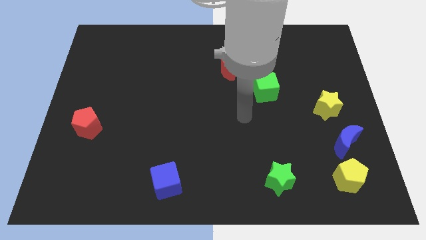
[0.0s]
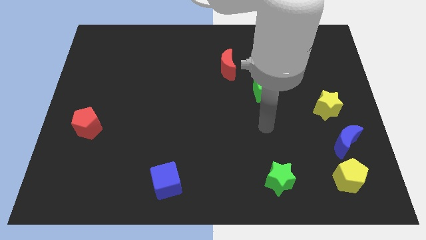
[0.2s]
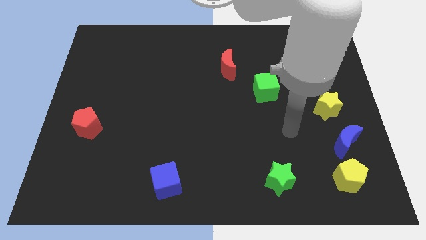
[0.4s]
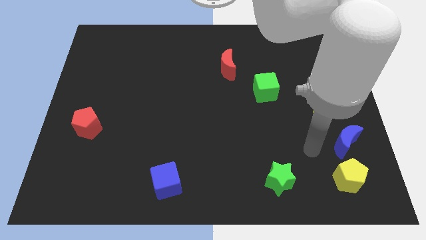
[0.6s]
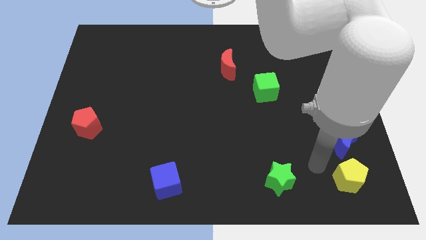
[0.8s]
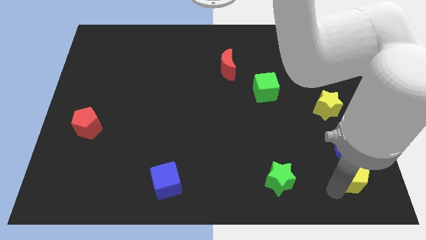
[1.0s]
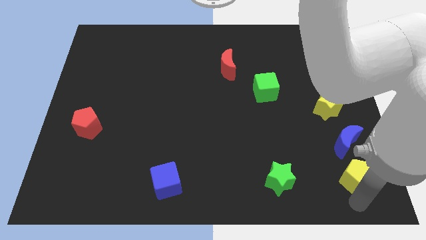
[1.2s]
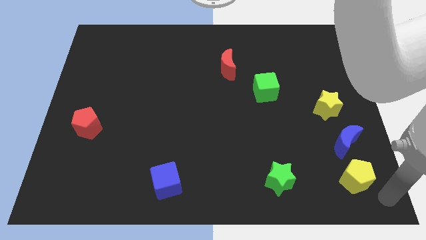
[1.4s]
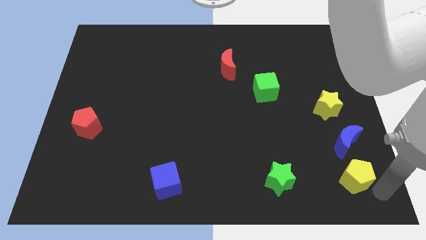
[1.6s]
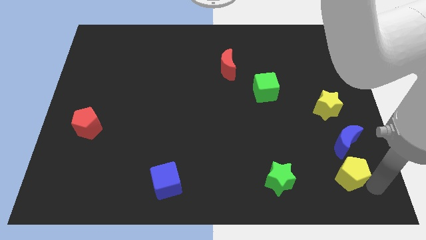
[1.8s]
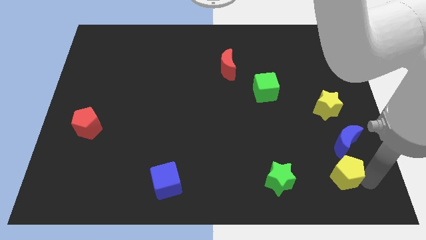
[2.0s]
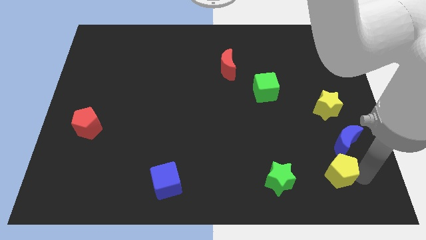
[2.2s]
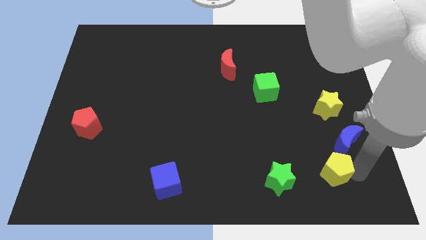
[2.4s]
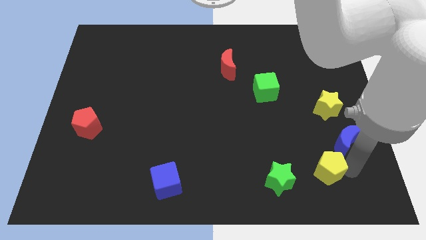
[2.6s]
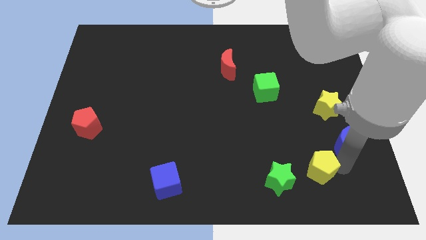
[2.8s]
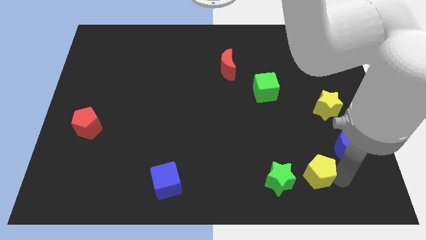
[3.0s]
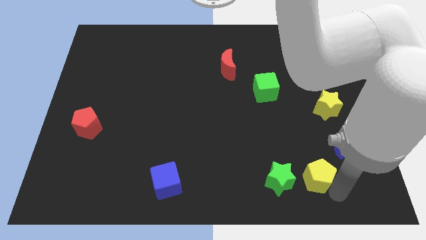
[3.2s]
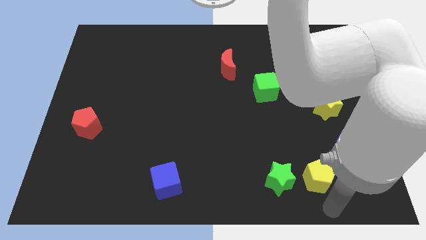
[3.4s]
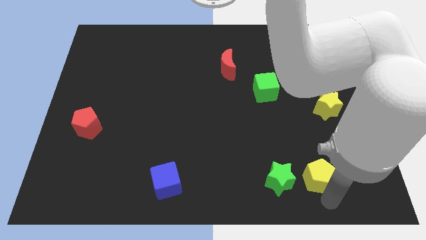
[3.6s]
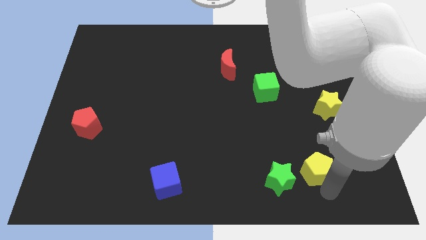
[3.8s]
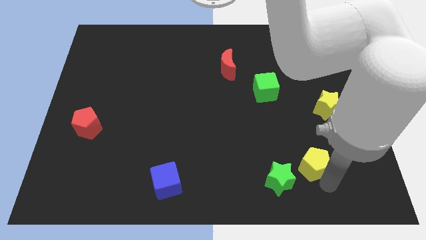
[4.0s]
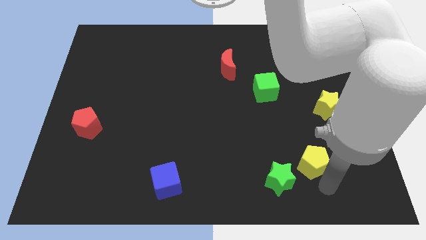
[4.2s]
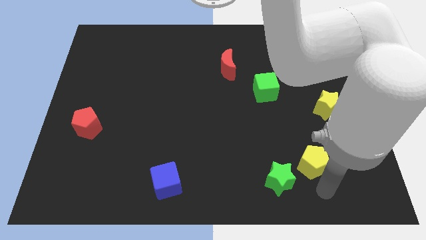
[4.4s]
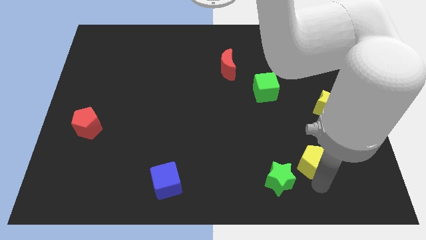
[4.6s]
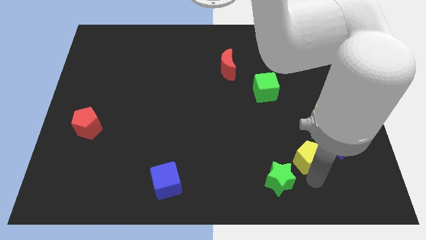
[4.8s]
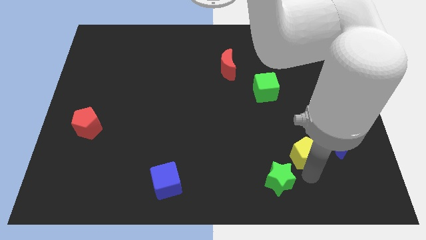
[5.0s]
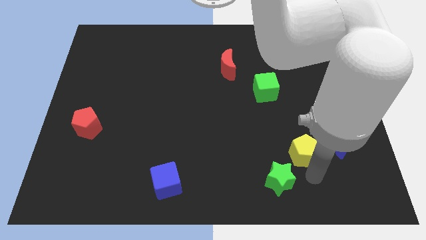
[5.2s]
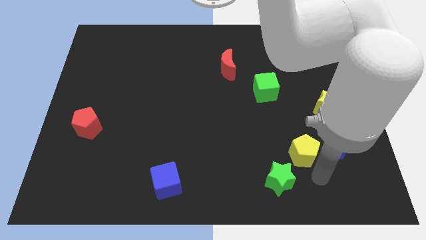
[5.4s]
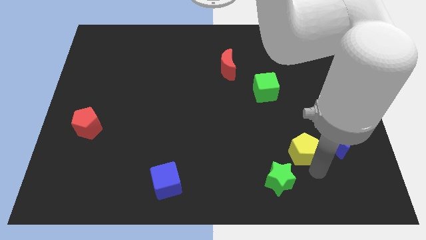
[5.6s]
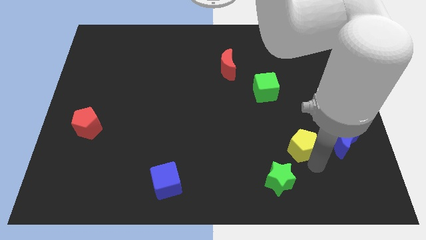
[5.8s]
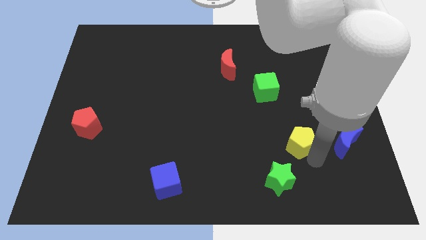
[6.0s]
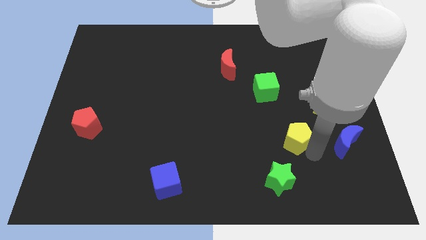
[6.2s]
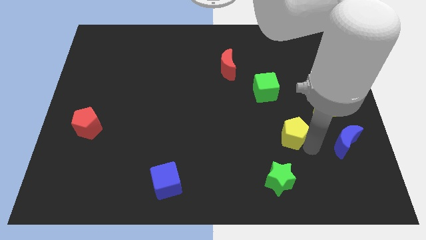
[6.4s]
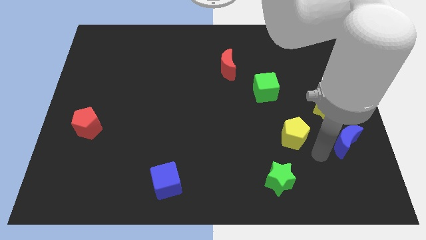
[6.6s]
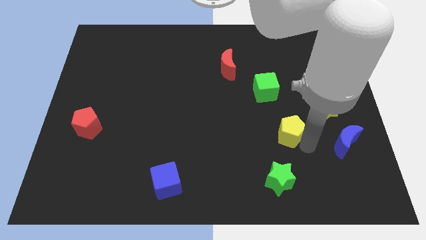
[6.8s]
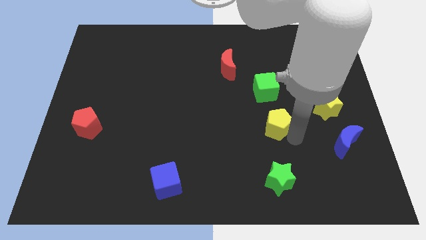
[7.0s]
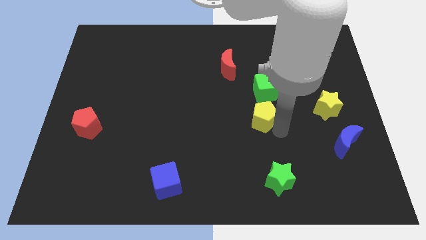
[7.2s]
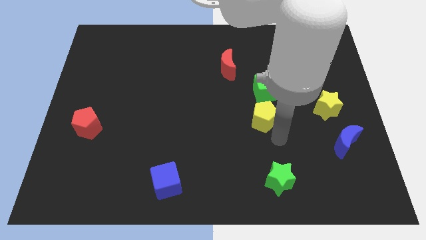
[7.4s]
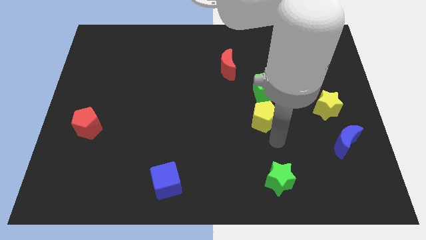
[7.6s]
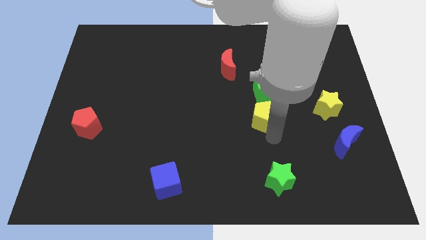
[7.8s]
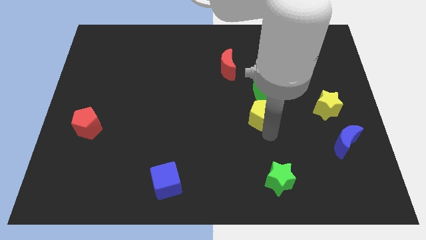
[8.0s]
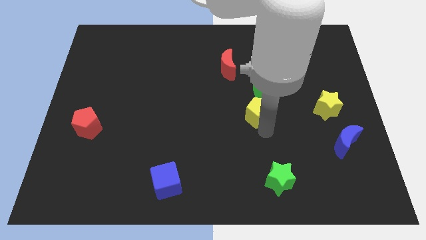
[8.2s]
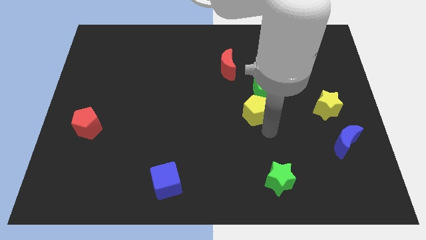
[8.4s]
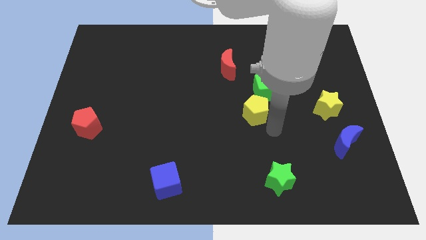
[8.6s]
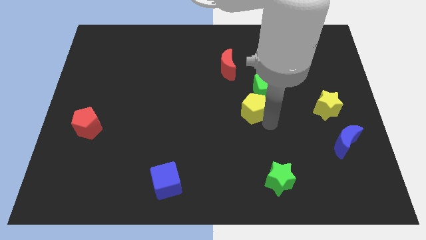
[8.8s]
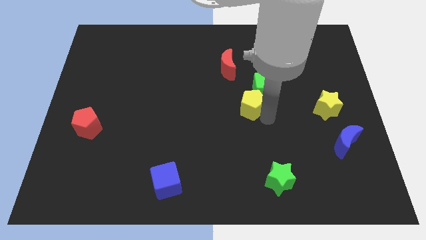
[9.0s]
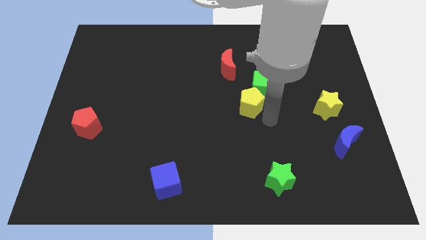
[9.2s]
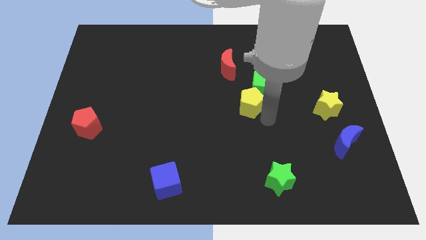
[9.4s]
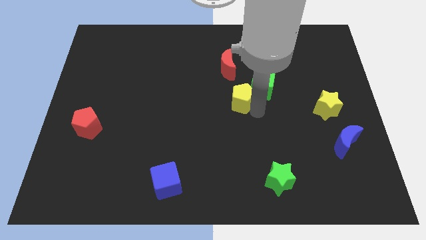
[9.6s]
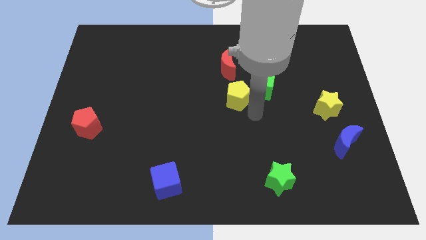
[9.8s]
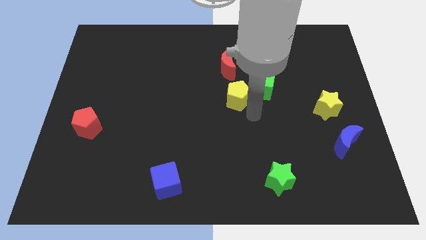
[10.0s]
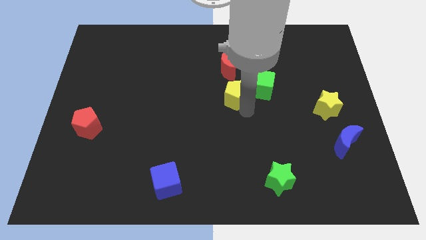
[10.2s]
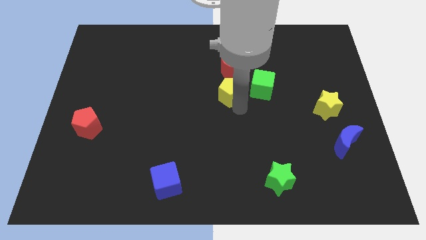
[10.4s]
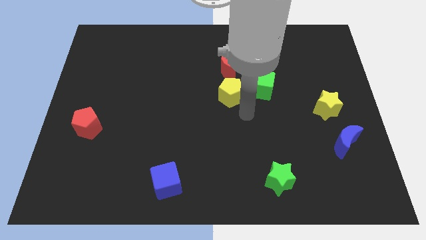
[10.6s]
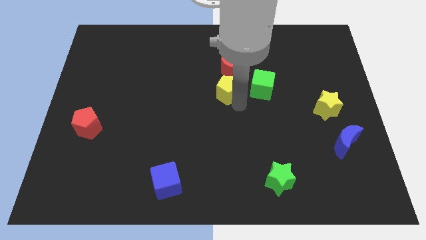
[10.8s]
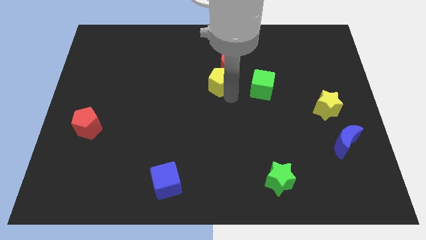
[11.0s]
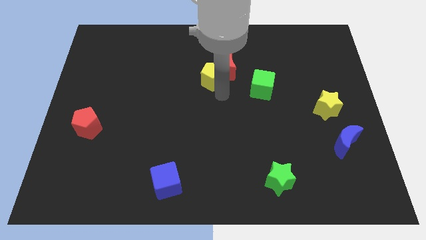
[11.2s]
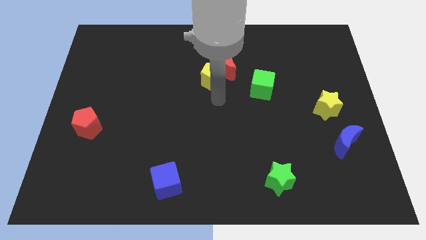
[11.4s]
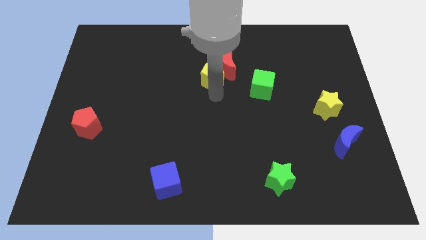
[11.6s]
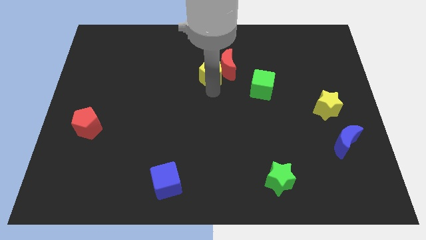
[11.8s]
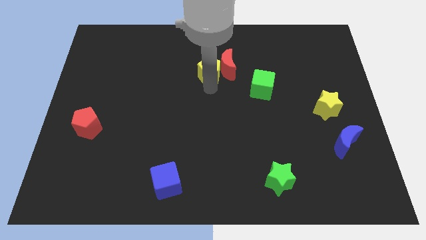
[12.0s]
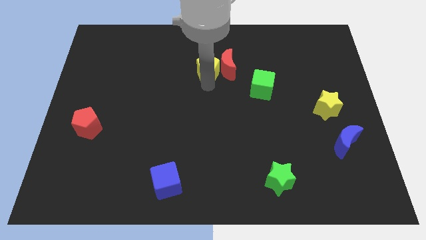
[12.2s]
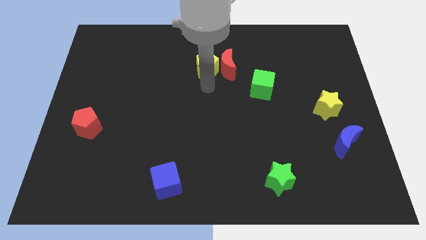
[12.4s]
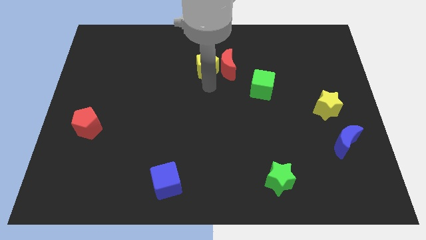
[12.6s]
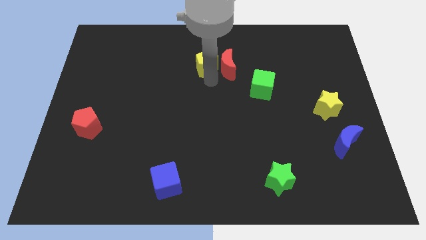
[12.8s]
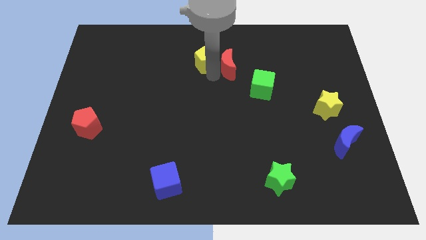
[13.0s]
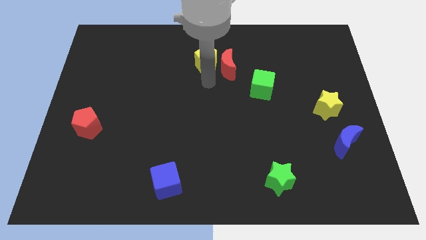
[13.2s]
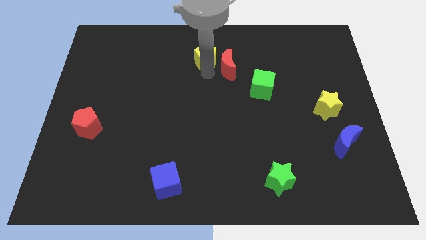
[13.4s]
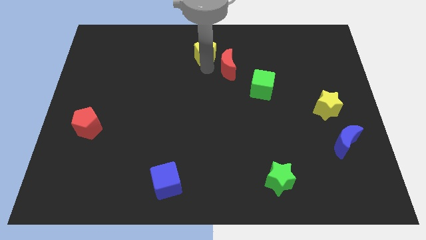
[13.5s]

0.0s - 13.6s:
put the yellow pentagon to the towards your base
